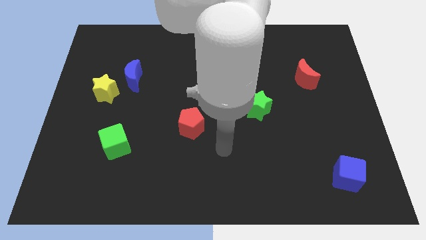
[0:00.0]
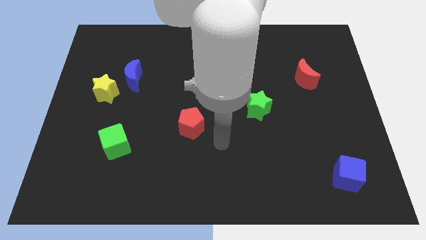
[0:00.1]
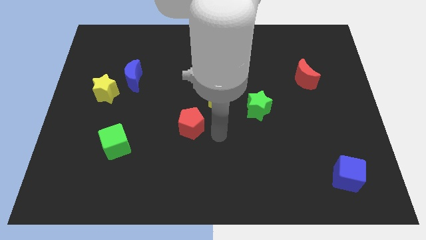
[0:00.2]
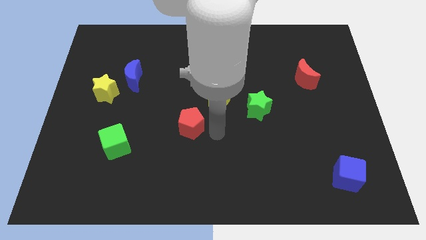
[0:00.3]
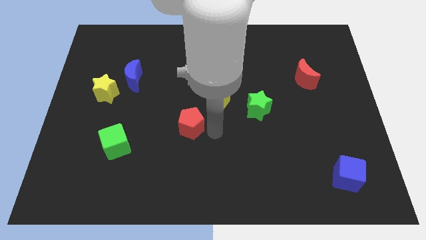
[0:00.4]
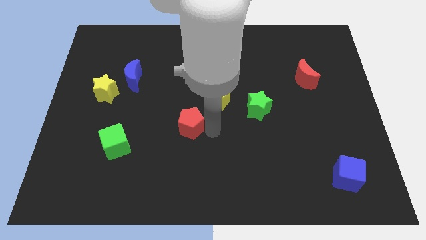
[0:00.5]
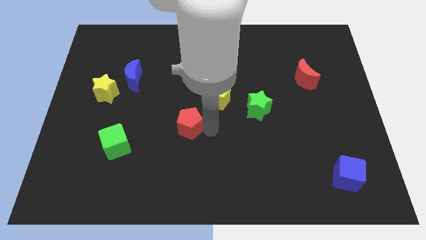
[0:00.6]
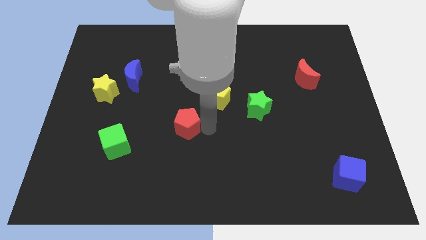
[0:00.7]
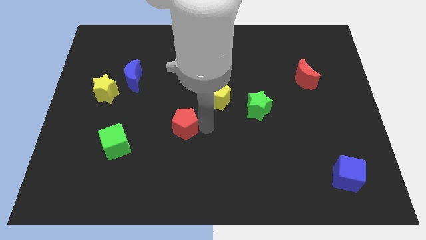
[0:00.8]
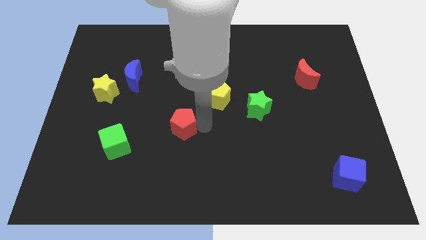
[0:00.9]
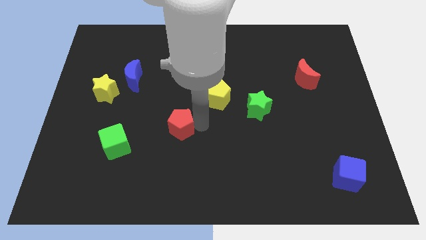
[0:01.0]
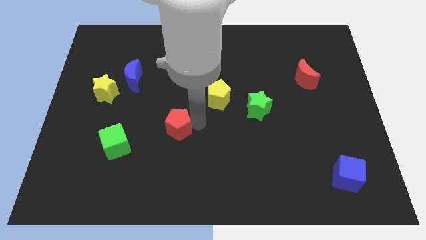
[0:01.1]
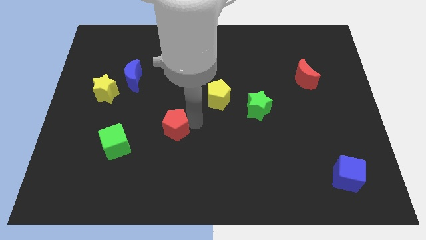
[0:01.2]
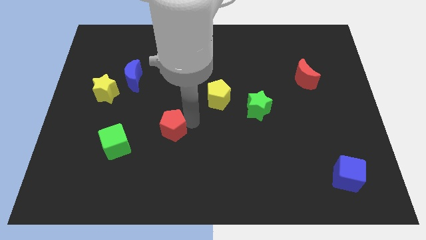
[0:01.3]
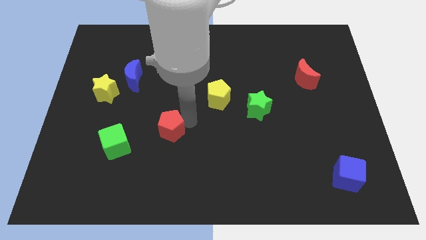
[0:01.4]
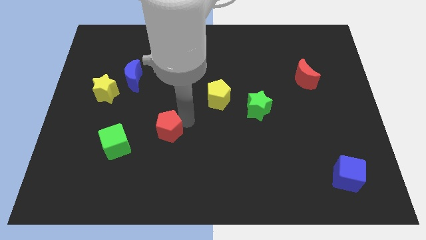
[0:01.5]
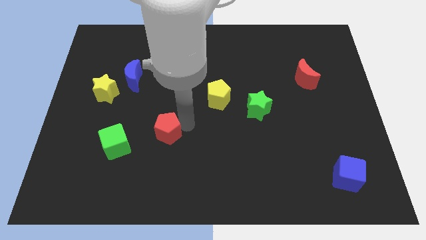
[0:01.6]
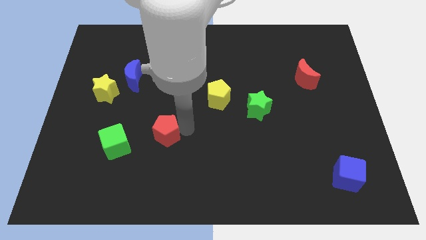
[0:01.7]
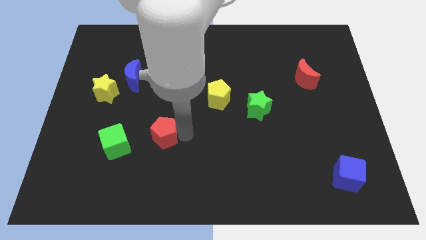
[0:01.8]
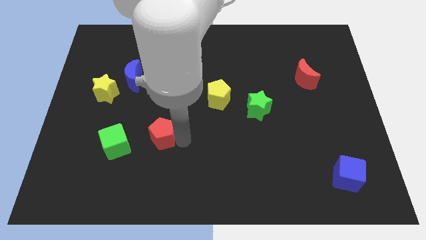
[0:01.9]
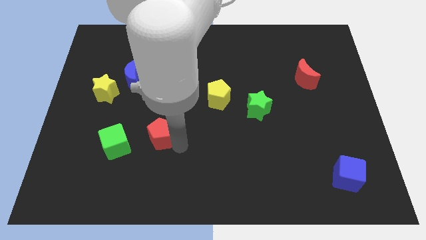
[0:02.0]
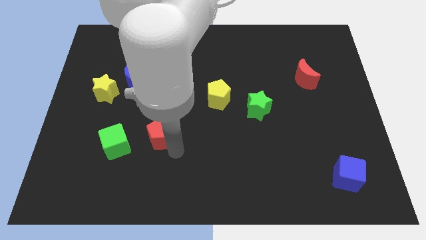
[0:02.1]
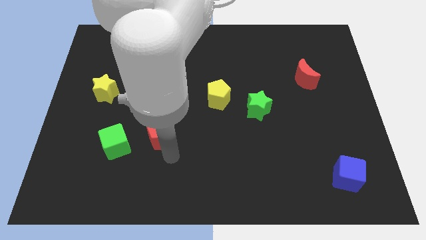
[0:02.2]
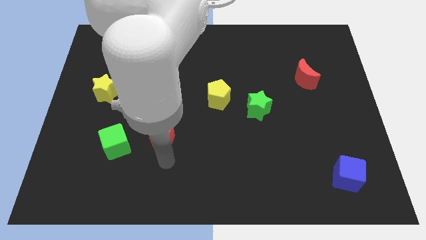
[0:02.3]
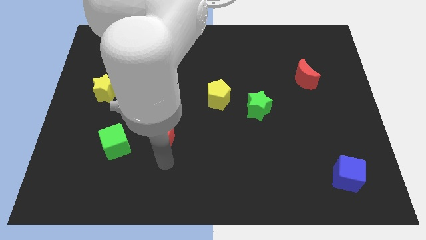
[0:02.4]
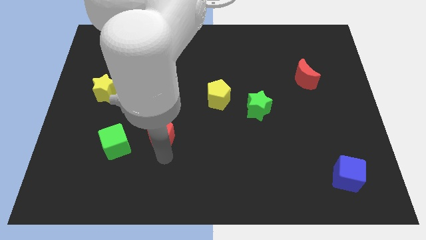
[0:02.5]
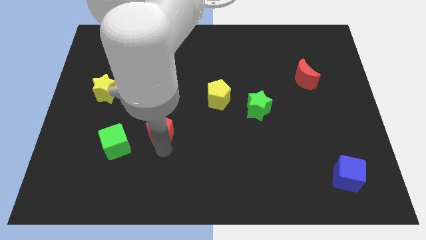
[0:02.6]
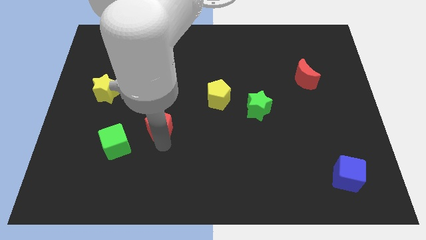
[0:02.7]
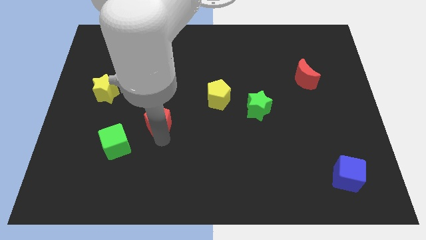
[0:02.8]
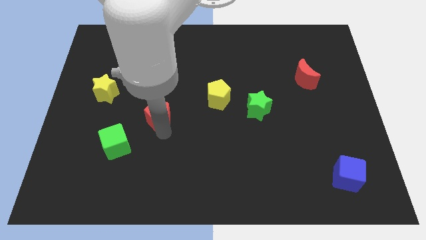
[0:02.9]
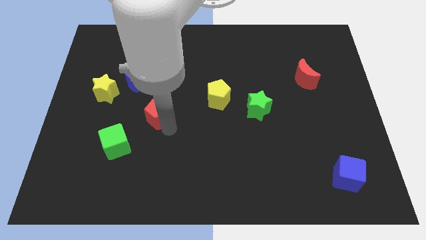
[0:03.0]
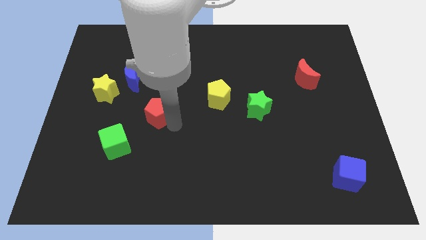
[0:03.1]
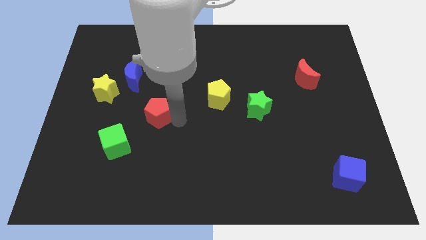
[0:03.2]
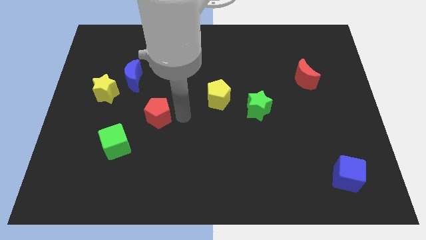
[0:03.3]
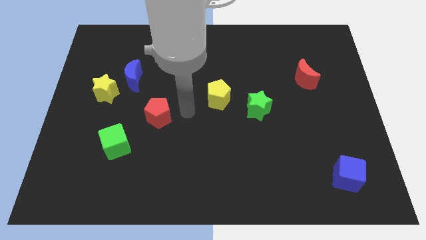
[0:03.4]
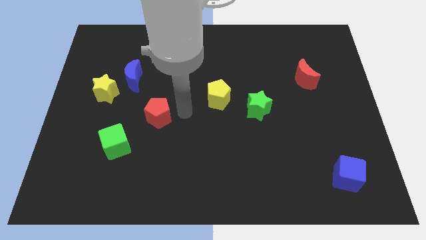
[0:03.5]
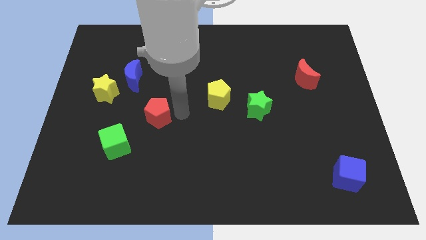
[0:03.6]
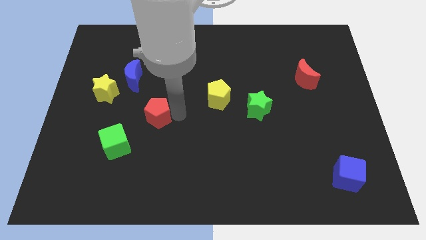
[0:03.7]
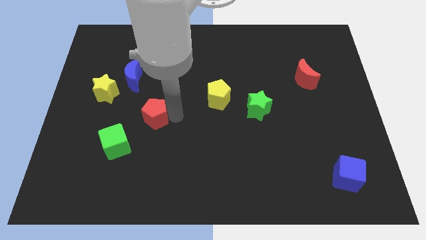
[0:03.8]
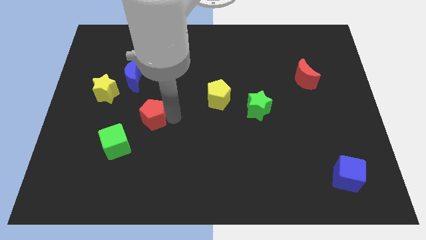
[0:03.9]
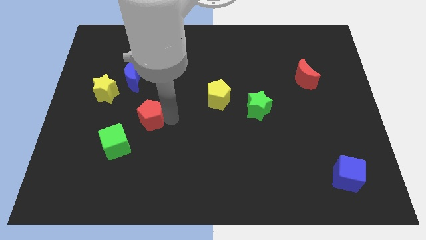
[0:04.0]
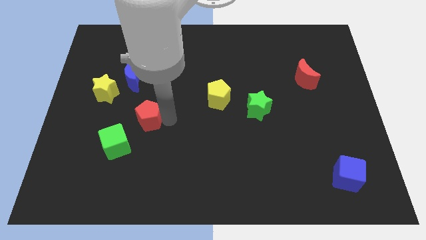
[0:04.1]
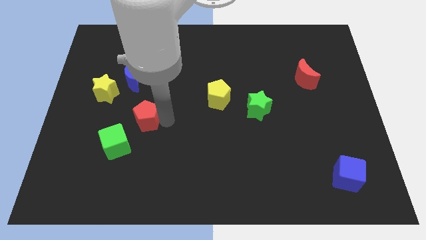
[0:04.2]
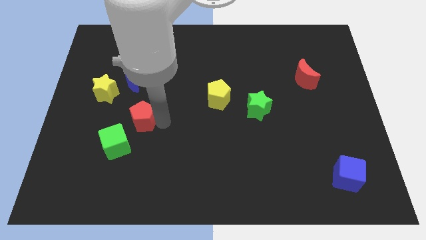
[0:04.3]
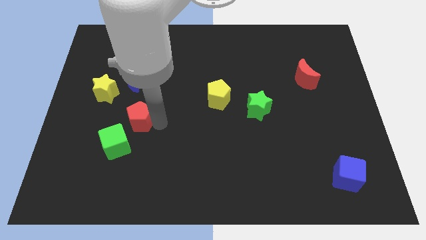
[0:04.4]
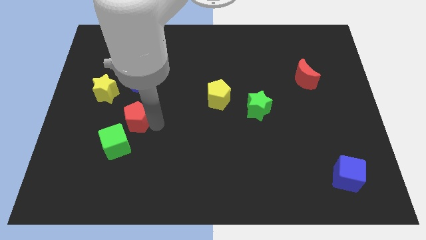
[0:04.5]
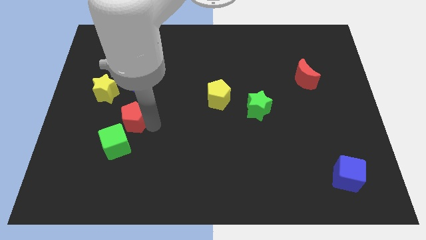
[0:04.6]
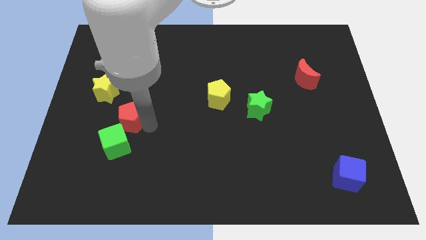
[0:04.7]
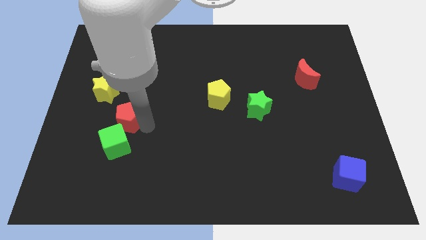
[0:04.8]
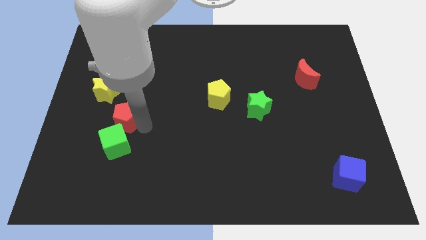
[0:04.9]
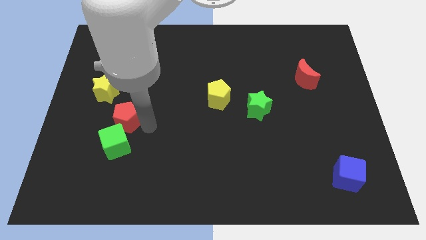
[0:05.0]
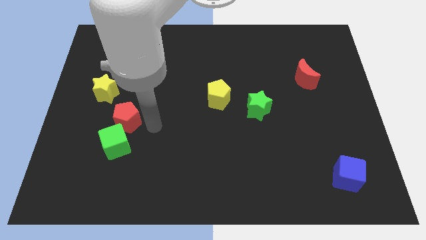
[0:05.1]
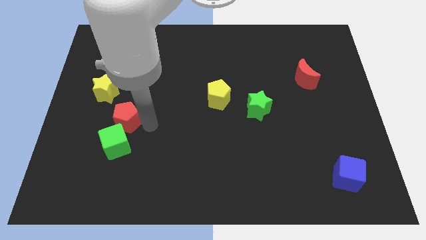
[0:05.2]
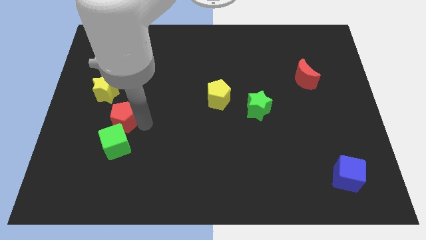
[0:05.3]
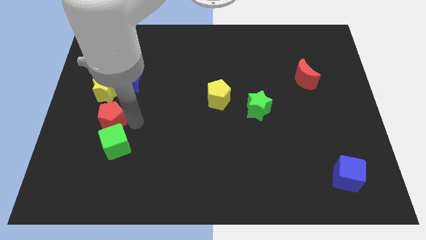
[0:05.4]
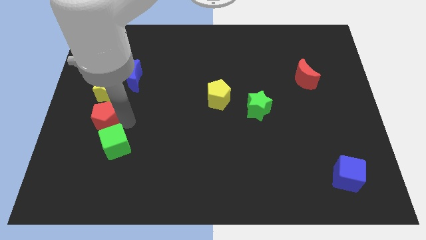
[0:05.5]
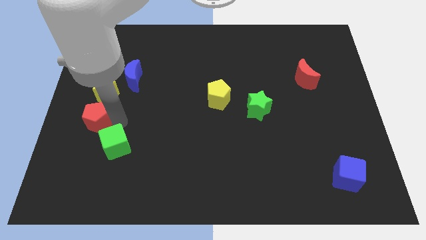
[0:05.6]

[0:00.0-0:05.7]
put the red pentagon to the left side
